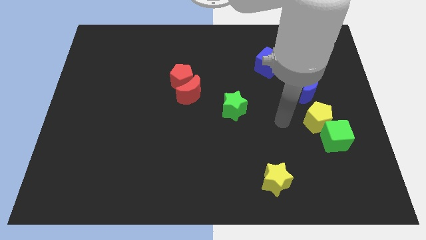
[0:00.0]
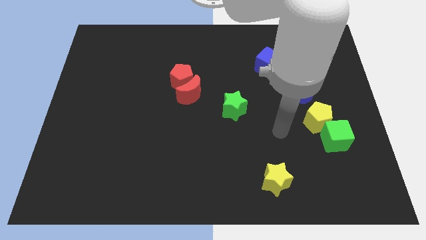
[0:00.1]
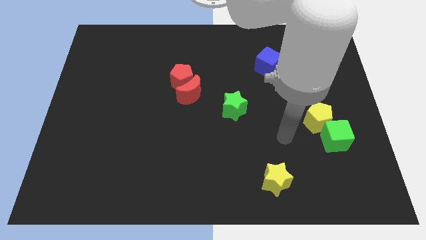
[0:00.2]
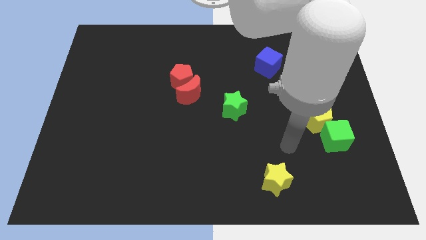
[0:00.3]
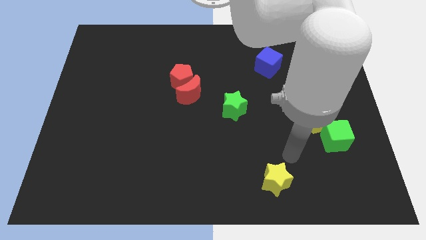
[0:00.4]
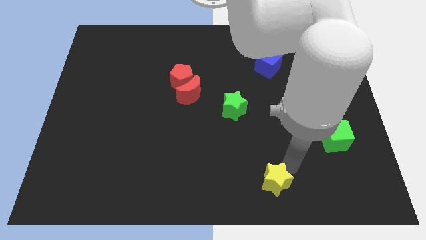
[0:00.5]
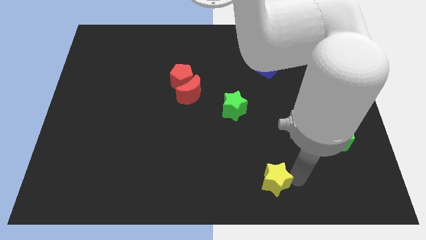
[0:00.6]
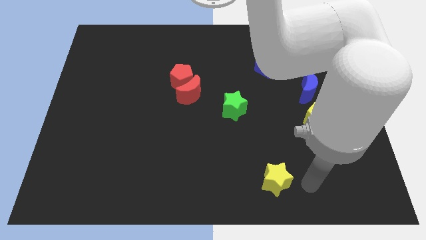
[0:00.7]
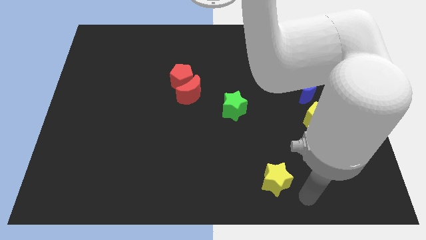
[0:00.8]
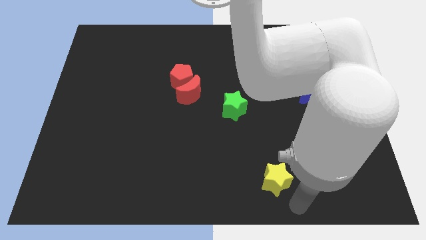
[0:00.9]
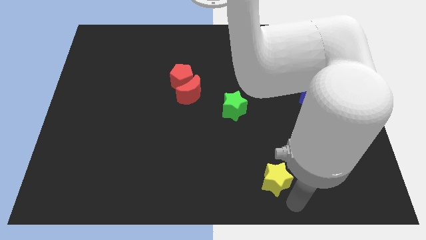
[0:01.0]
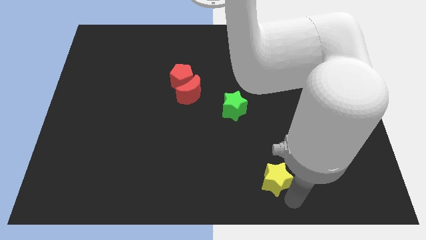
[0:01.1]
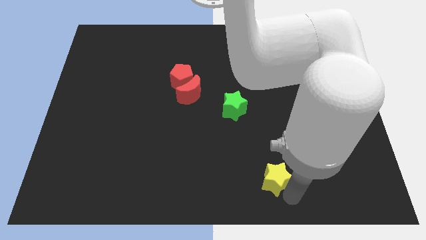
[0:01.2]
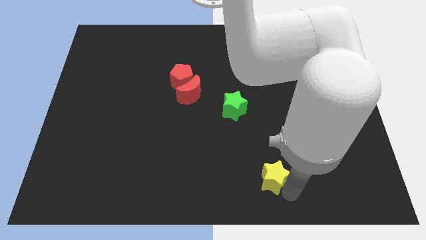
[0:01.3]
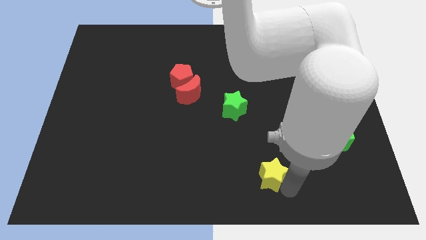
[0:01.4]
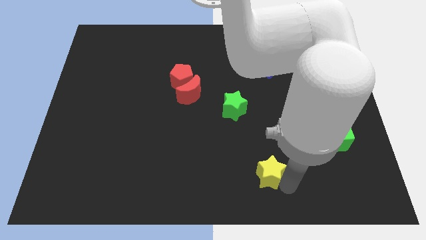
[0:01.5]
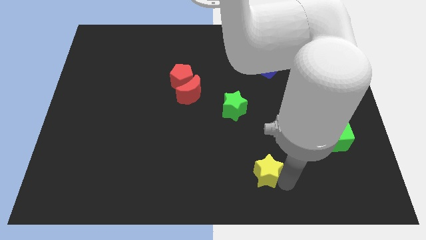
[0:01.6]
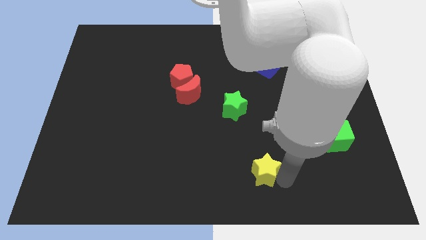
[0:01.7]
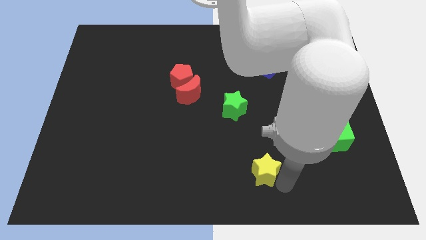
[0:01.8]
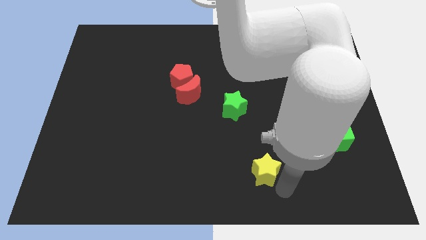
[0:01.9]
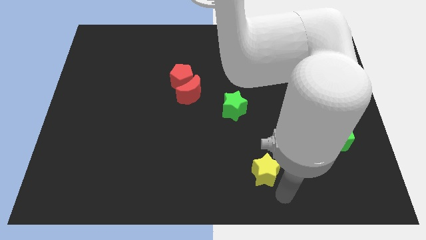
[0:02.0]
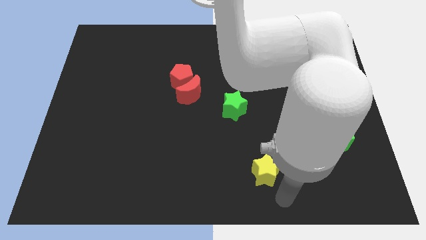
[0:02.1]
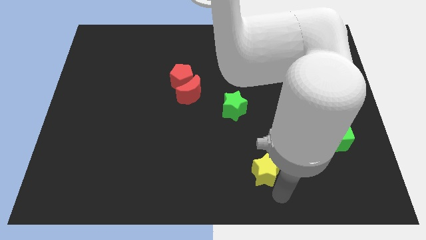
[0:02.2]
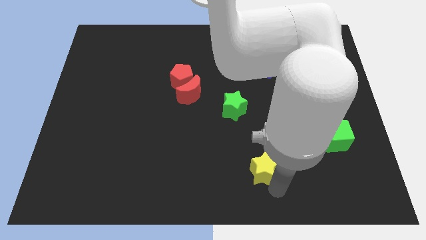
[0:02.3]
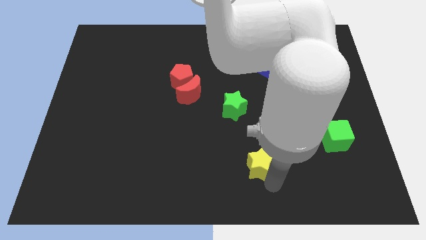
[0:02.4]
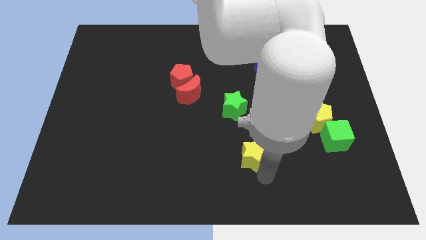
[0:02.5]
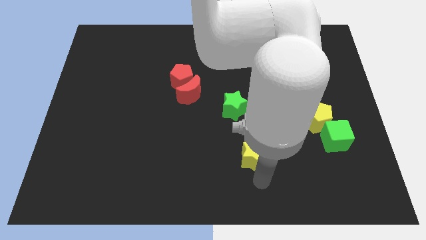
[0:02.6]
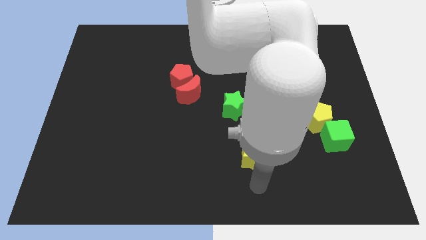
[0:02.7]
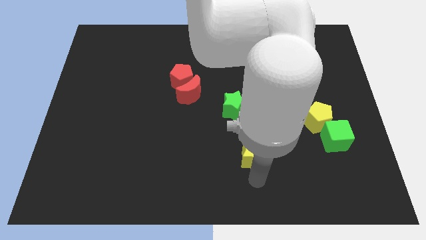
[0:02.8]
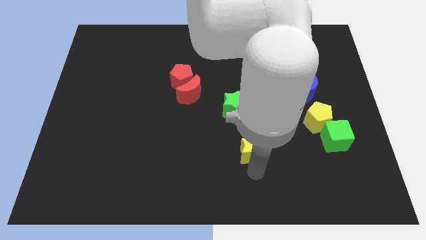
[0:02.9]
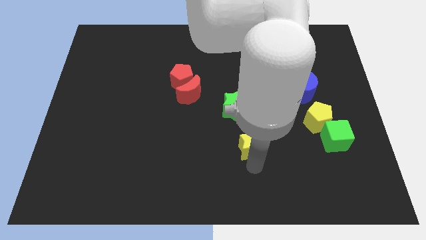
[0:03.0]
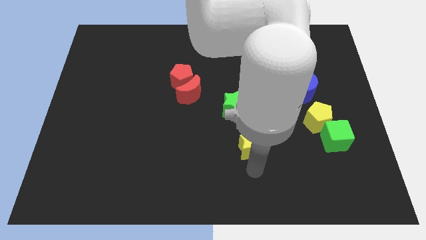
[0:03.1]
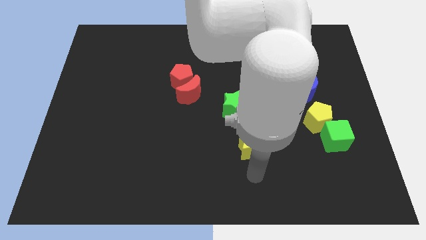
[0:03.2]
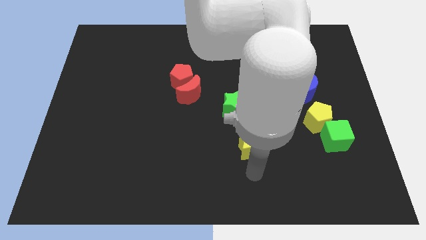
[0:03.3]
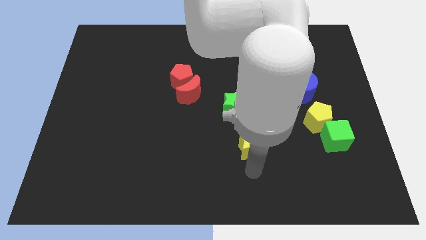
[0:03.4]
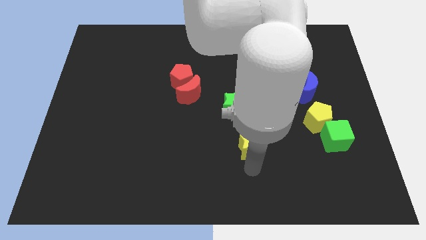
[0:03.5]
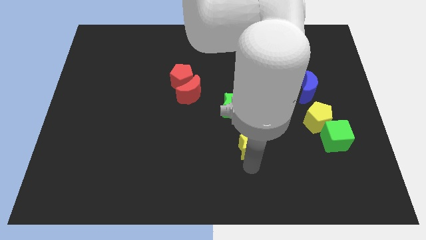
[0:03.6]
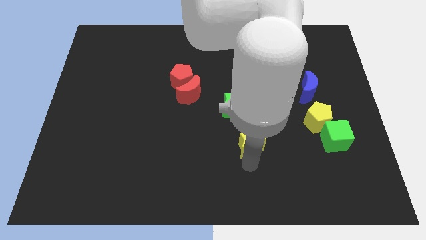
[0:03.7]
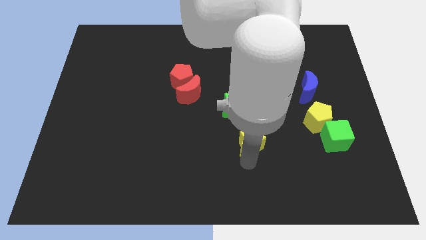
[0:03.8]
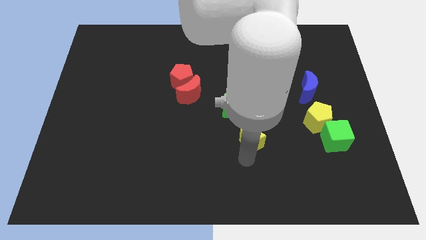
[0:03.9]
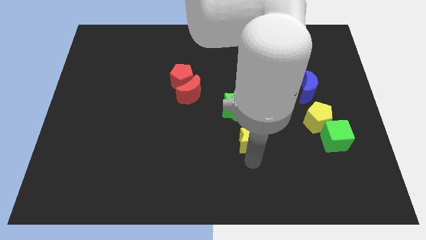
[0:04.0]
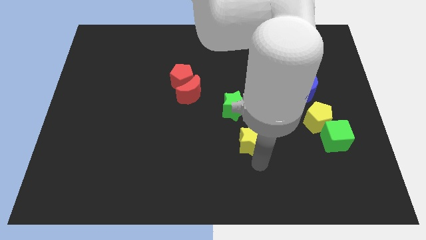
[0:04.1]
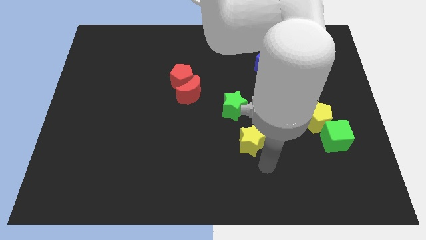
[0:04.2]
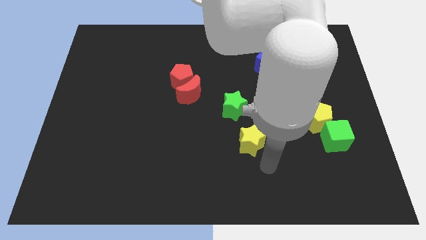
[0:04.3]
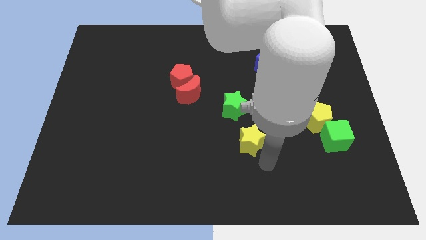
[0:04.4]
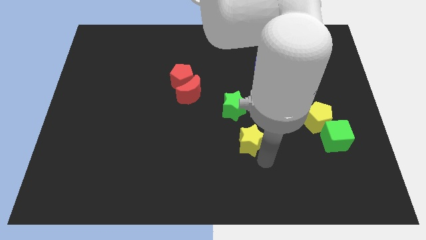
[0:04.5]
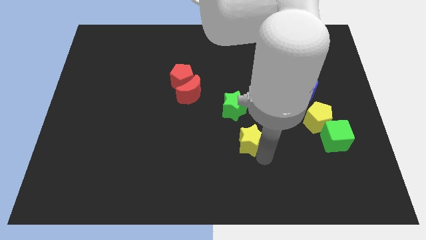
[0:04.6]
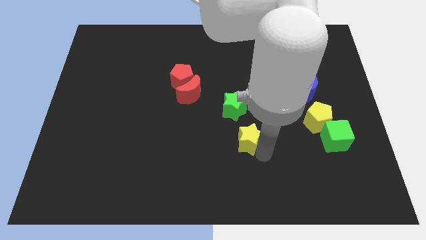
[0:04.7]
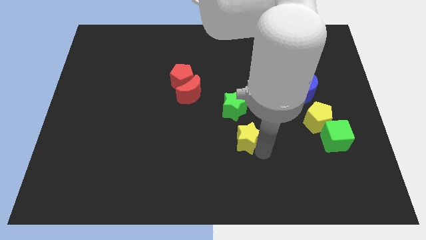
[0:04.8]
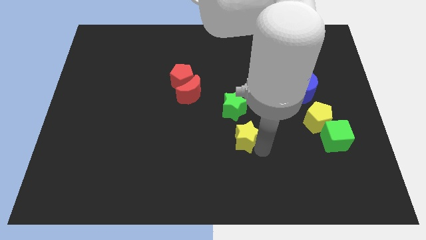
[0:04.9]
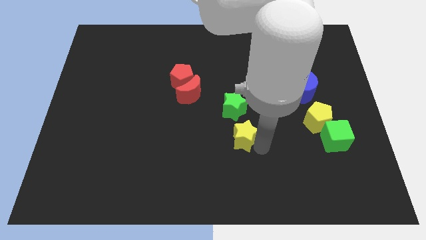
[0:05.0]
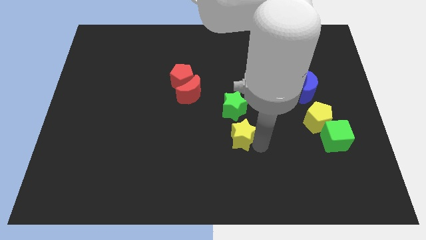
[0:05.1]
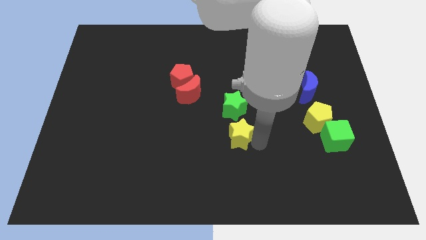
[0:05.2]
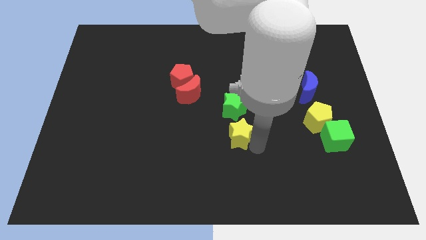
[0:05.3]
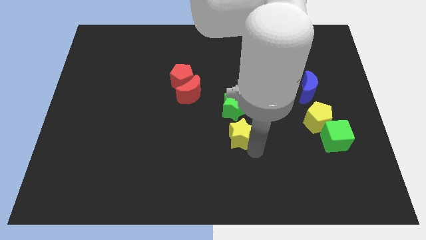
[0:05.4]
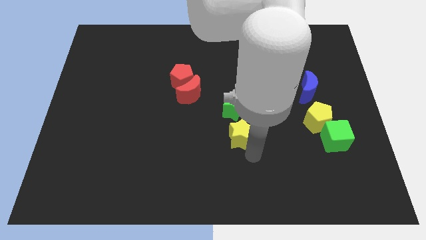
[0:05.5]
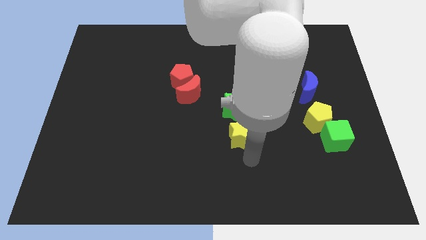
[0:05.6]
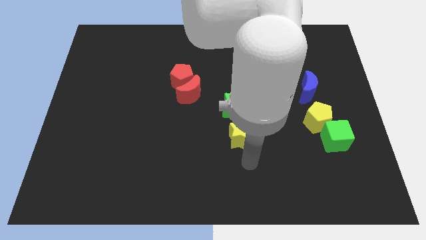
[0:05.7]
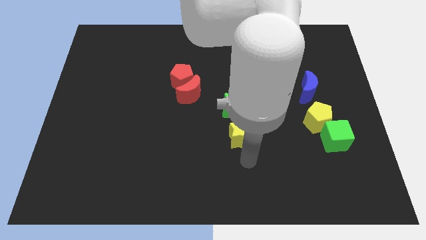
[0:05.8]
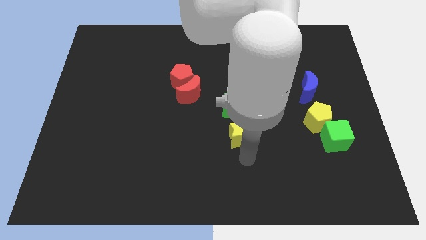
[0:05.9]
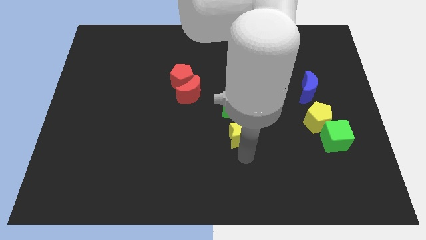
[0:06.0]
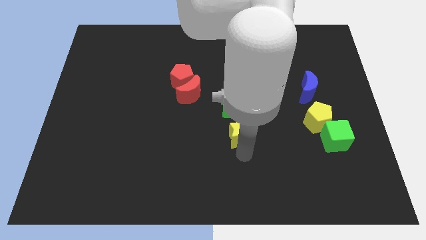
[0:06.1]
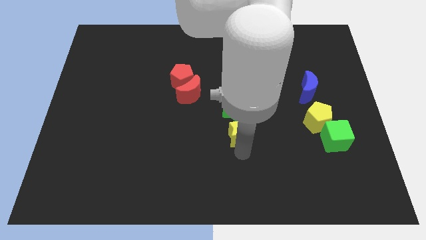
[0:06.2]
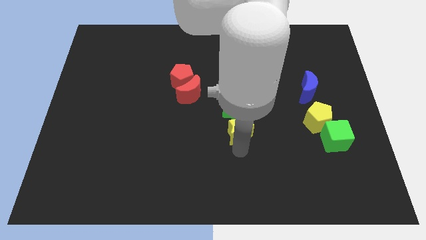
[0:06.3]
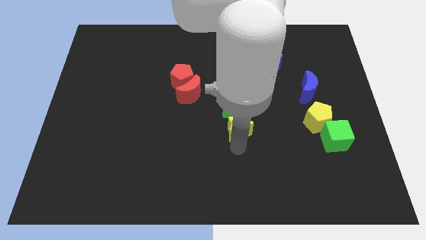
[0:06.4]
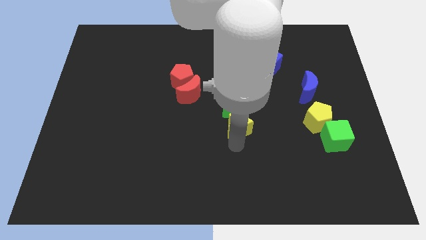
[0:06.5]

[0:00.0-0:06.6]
put the yellow star next to the green star

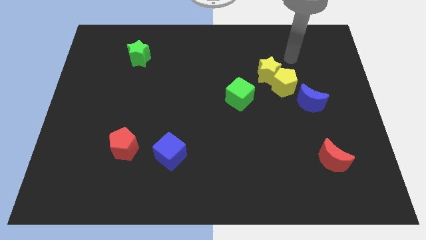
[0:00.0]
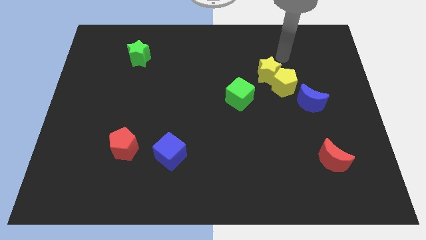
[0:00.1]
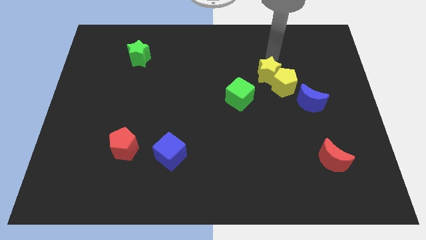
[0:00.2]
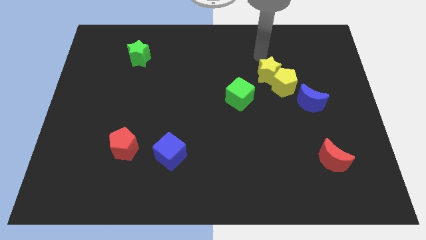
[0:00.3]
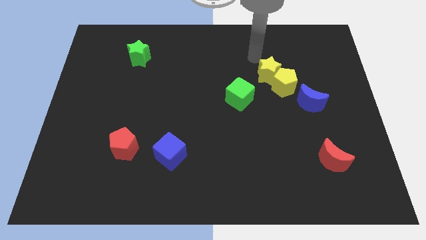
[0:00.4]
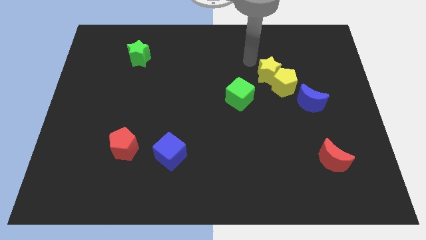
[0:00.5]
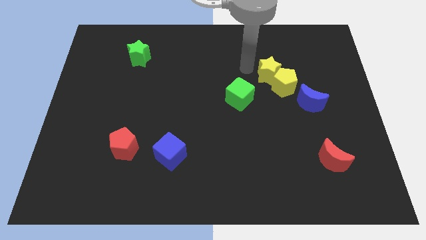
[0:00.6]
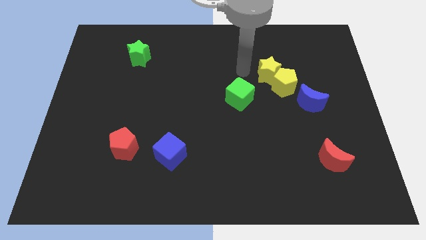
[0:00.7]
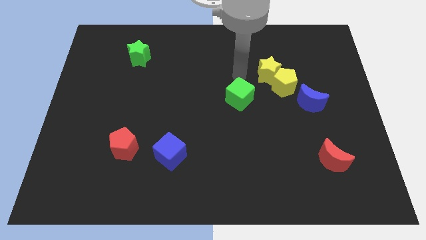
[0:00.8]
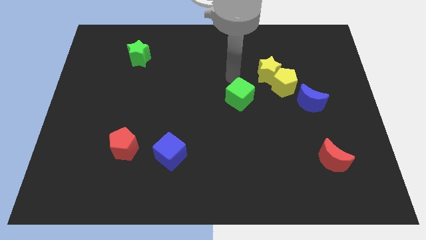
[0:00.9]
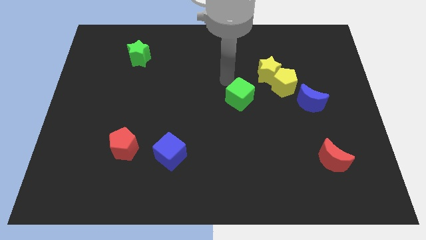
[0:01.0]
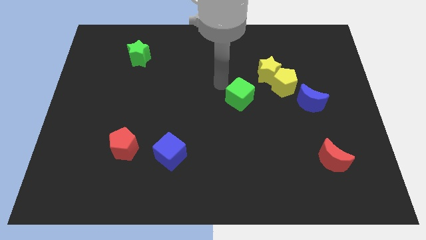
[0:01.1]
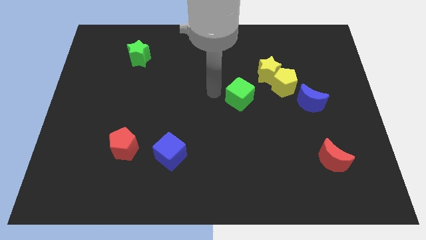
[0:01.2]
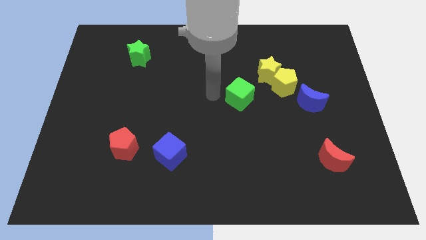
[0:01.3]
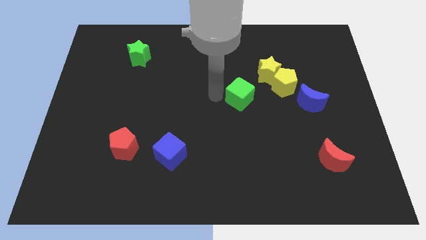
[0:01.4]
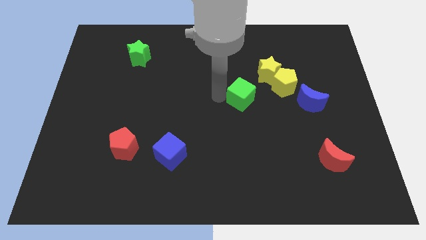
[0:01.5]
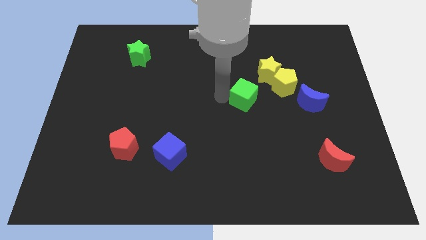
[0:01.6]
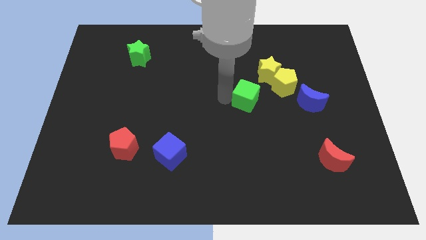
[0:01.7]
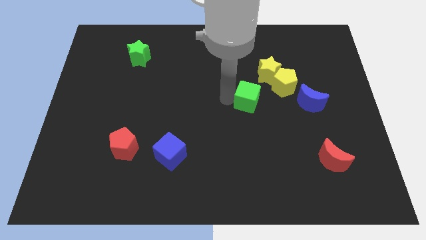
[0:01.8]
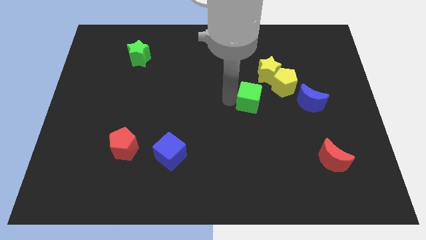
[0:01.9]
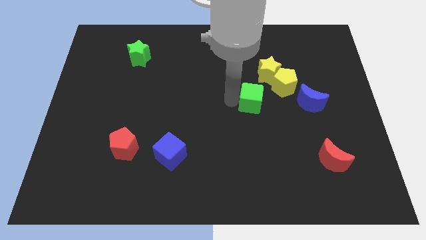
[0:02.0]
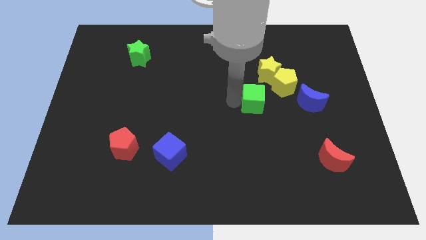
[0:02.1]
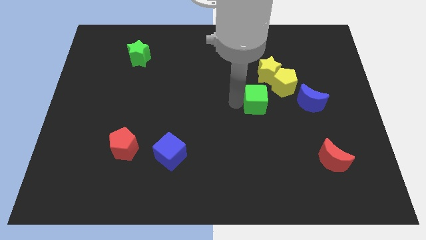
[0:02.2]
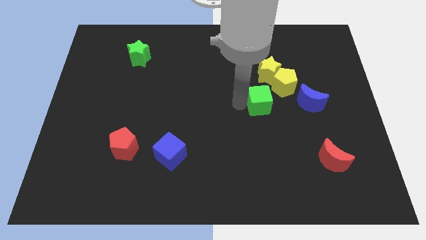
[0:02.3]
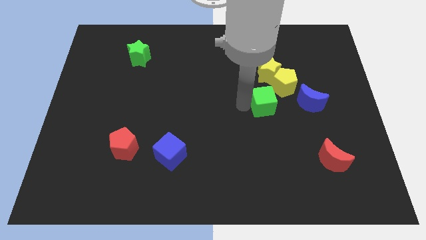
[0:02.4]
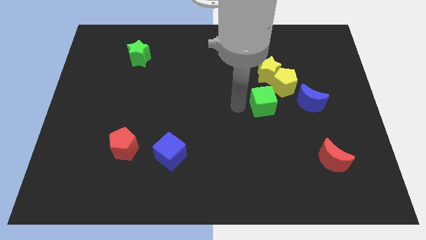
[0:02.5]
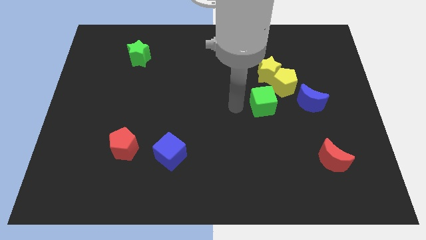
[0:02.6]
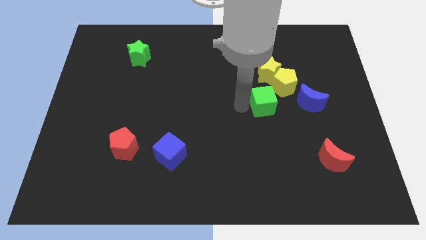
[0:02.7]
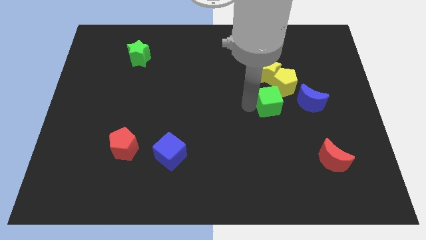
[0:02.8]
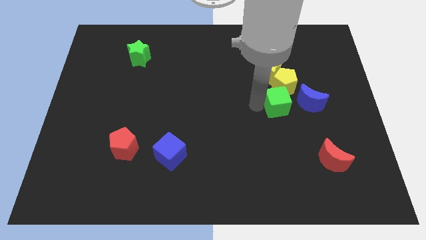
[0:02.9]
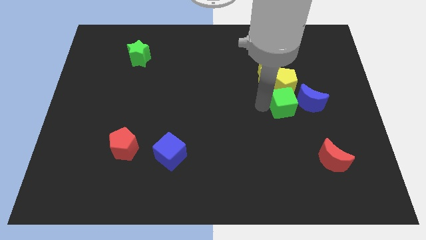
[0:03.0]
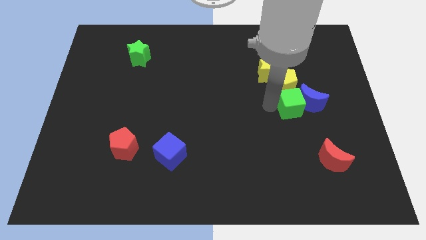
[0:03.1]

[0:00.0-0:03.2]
put the green cube towards the blue moon
